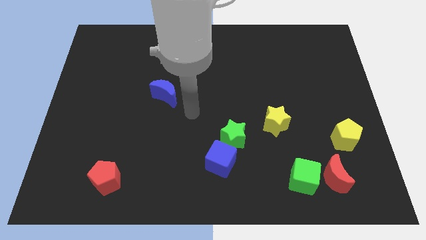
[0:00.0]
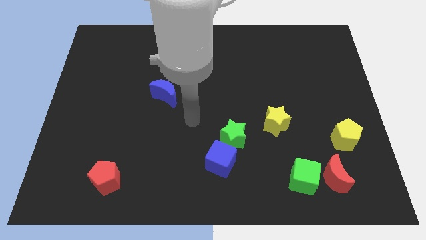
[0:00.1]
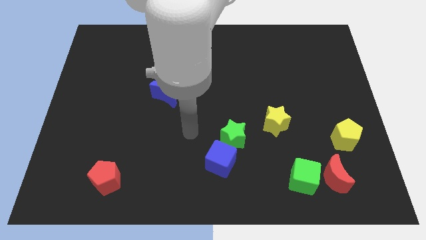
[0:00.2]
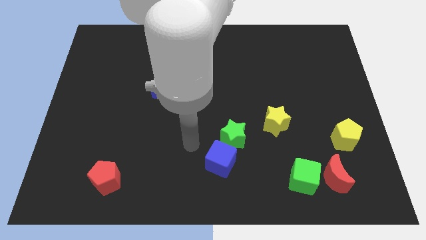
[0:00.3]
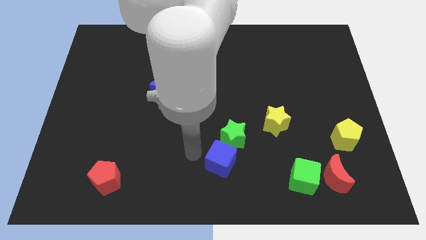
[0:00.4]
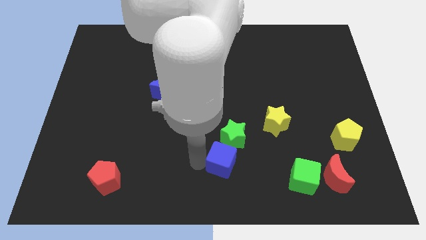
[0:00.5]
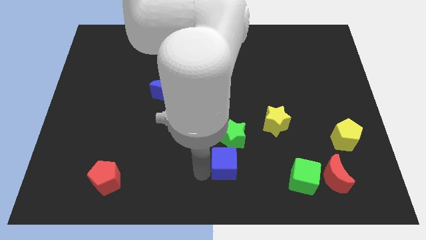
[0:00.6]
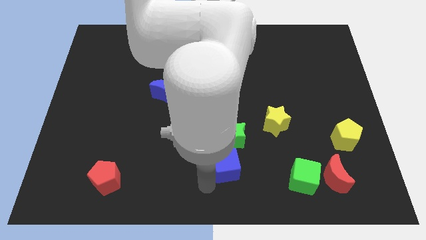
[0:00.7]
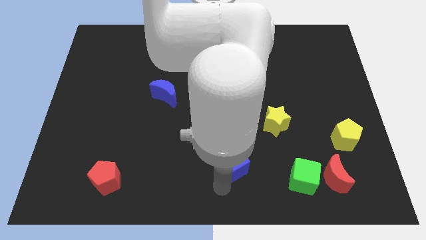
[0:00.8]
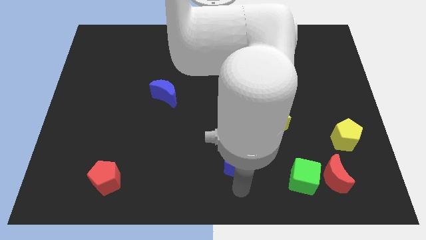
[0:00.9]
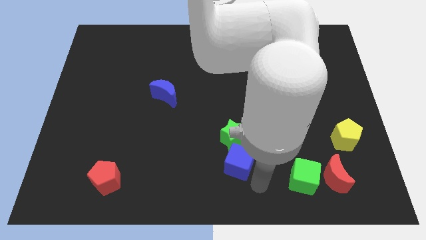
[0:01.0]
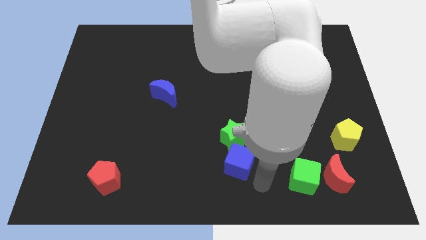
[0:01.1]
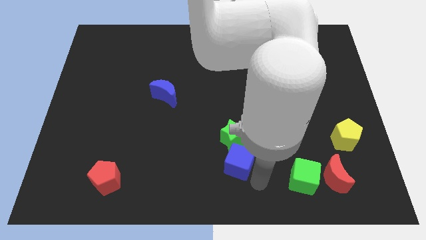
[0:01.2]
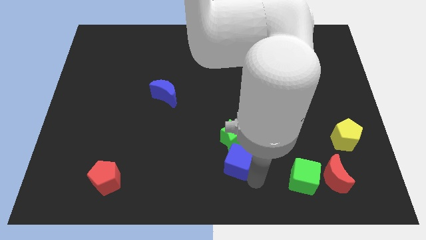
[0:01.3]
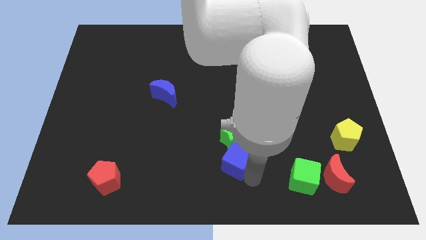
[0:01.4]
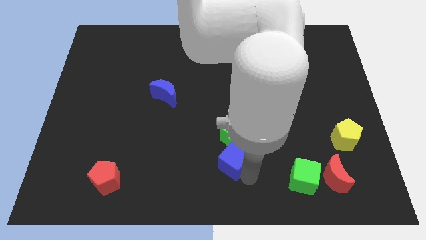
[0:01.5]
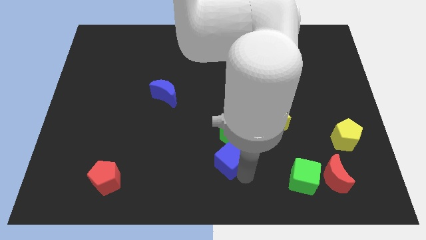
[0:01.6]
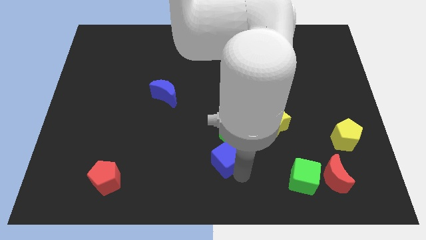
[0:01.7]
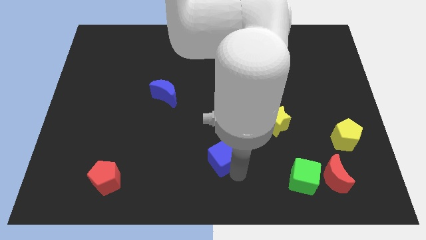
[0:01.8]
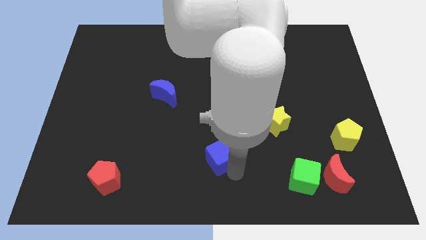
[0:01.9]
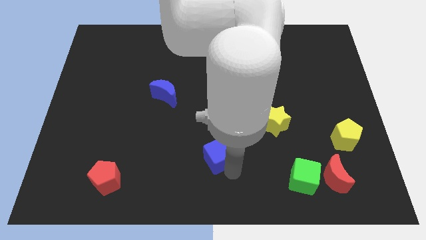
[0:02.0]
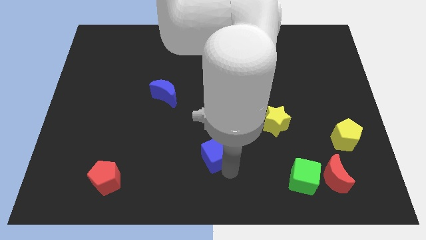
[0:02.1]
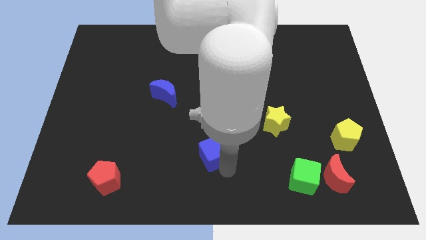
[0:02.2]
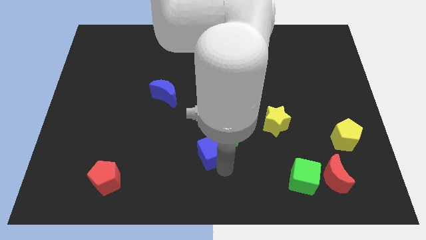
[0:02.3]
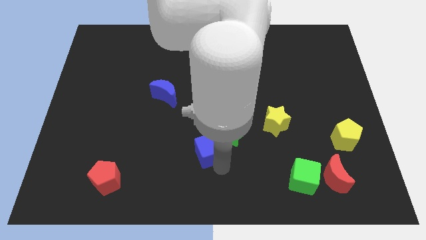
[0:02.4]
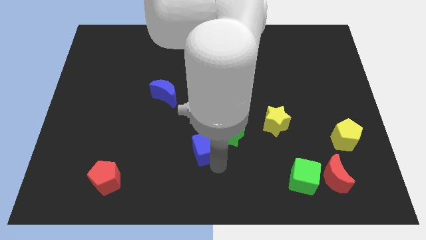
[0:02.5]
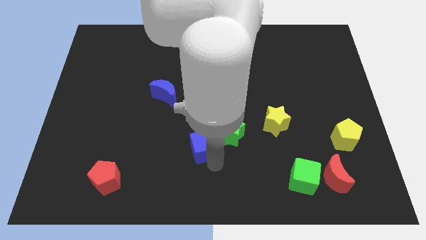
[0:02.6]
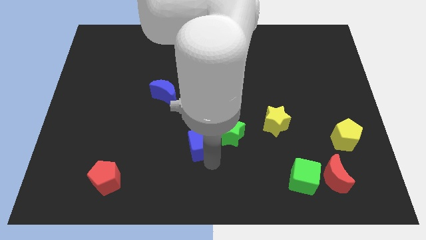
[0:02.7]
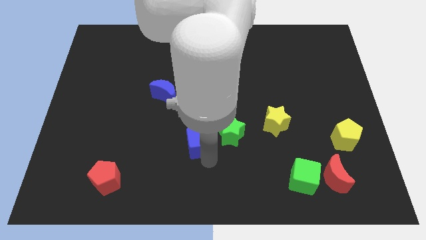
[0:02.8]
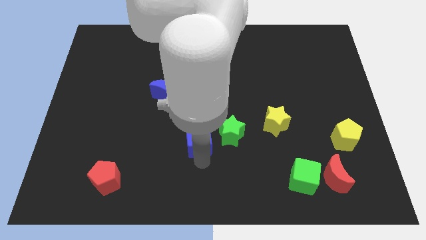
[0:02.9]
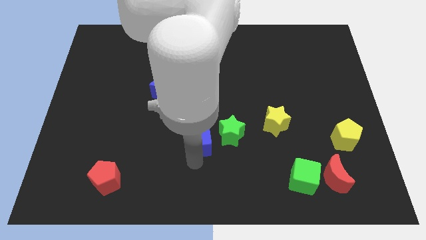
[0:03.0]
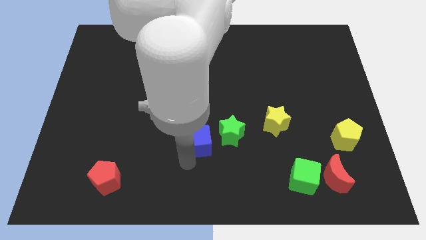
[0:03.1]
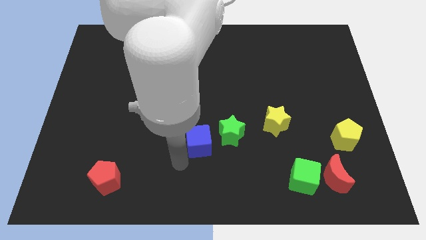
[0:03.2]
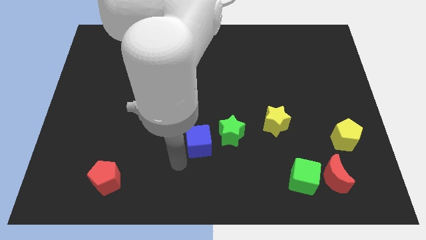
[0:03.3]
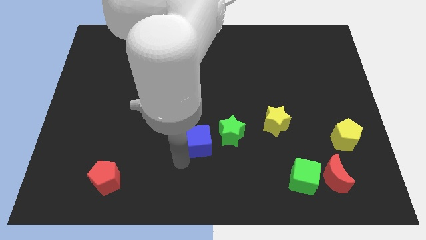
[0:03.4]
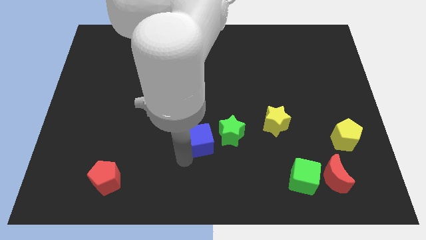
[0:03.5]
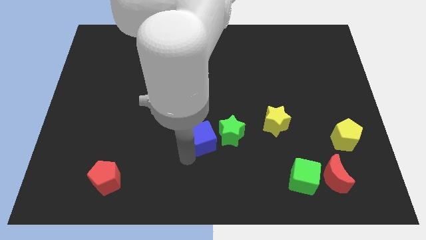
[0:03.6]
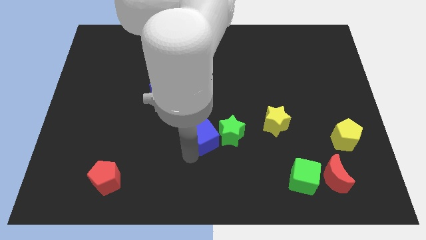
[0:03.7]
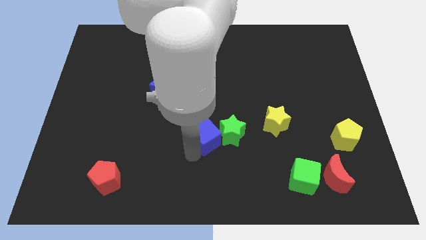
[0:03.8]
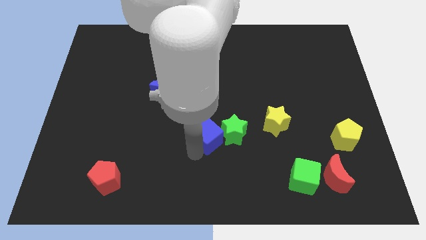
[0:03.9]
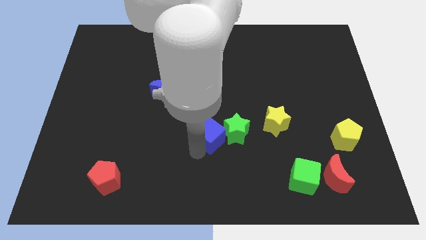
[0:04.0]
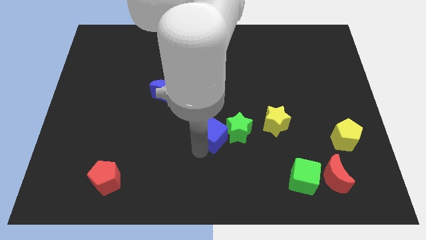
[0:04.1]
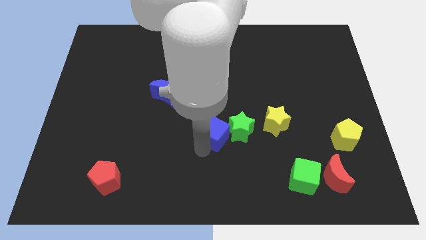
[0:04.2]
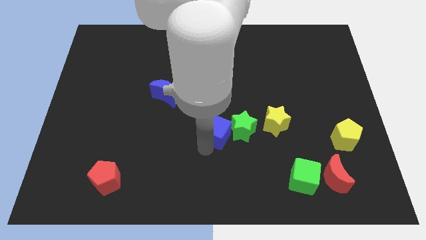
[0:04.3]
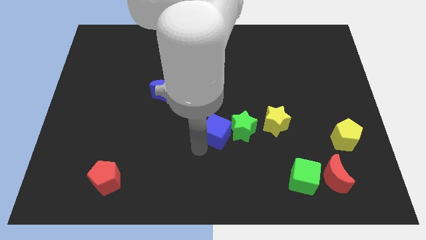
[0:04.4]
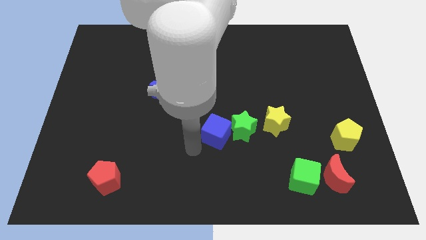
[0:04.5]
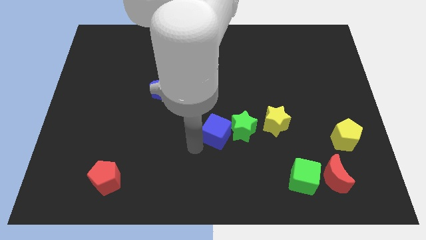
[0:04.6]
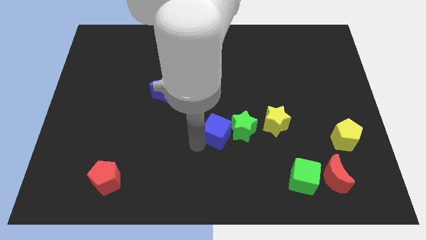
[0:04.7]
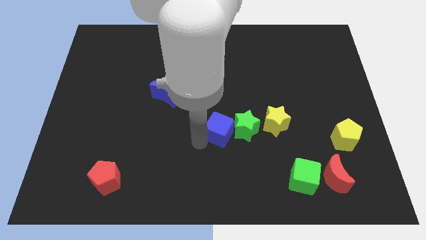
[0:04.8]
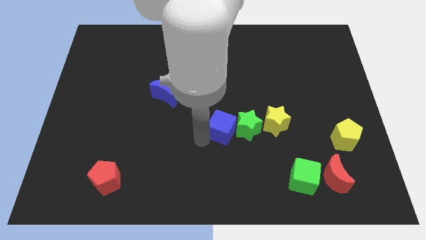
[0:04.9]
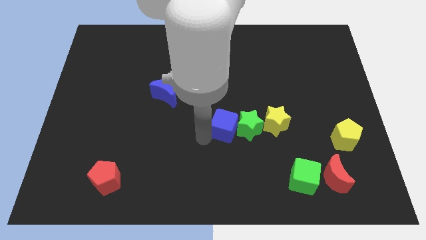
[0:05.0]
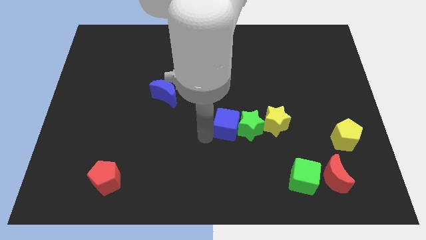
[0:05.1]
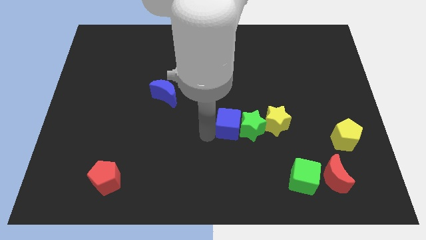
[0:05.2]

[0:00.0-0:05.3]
move the blue cube up and right a bit

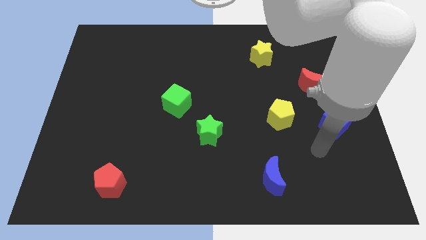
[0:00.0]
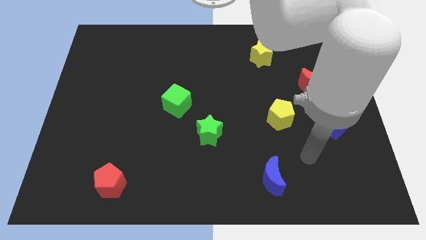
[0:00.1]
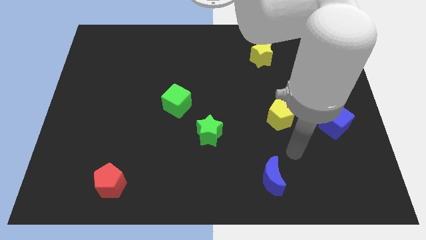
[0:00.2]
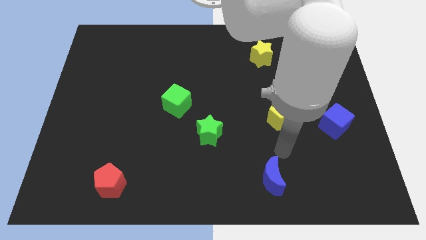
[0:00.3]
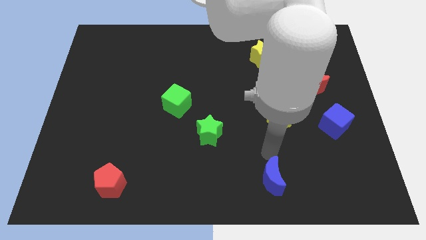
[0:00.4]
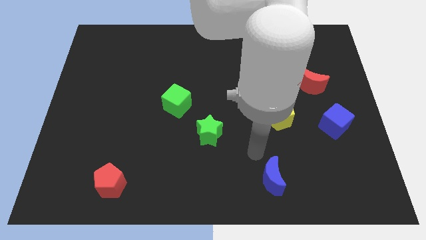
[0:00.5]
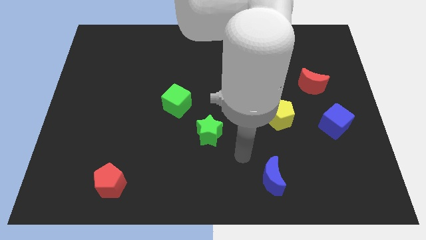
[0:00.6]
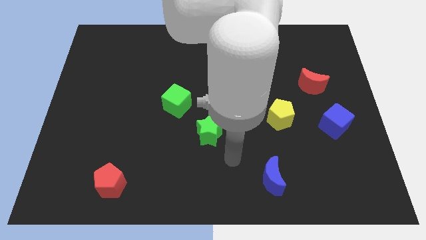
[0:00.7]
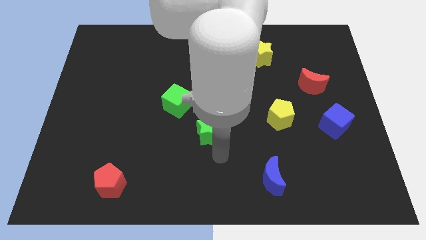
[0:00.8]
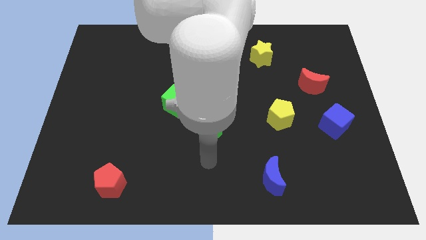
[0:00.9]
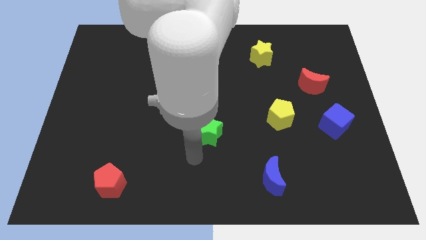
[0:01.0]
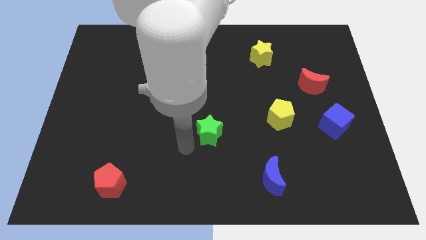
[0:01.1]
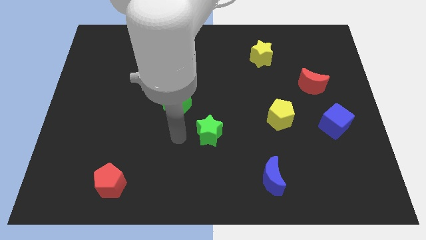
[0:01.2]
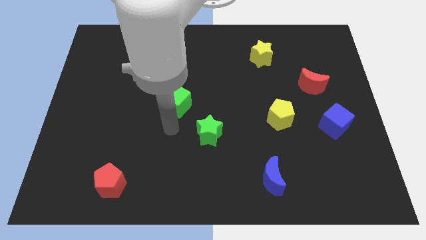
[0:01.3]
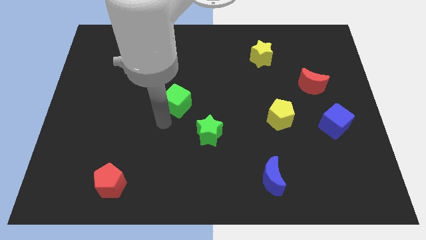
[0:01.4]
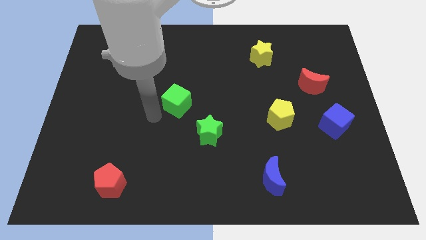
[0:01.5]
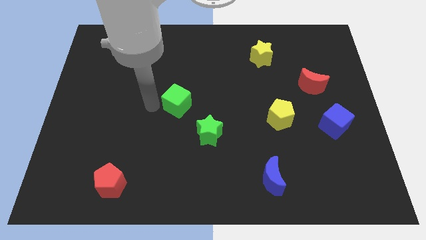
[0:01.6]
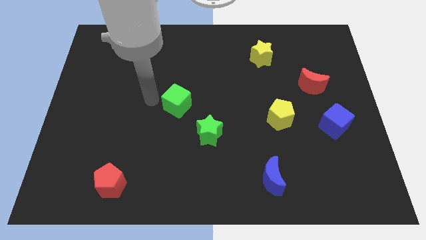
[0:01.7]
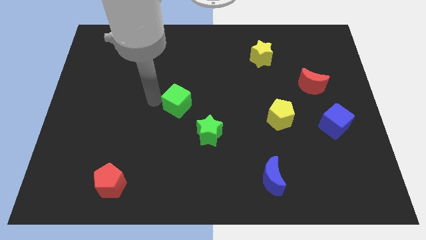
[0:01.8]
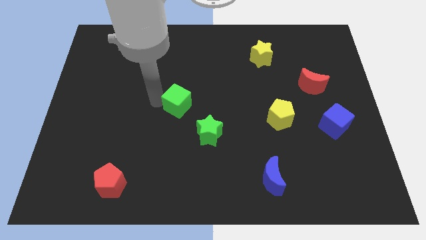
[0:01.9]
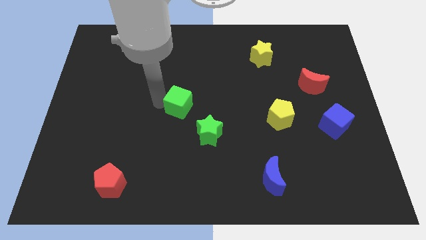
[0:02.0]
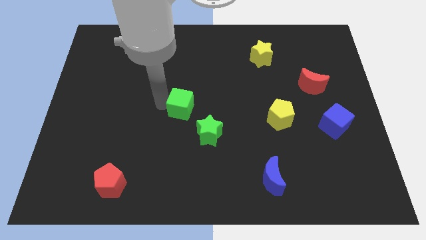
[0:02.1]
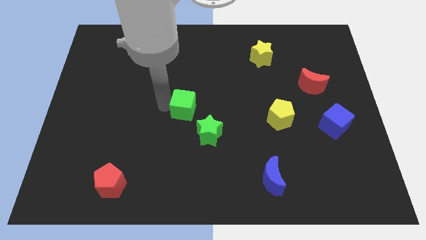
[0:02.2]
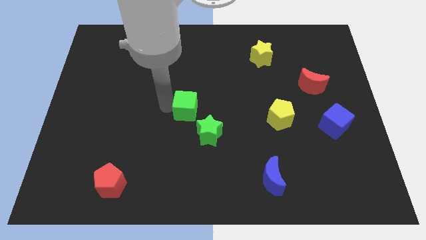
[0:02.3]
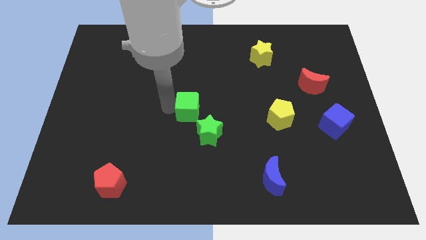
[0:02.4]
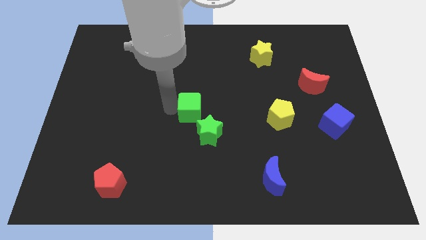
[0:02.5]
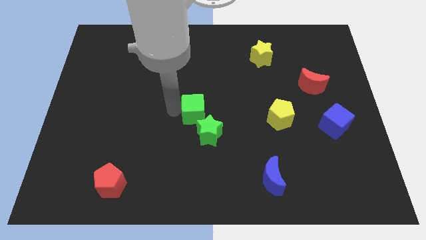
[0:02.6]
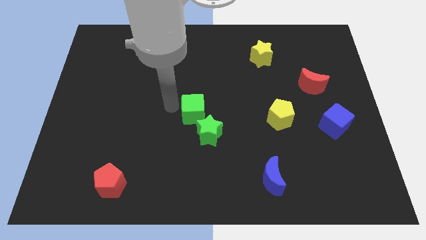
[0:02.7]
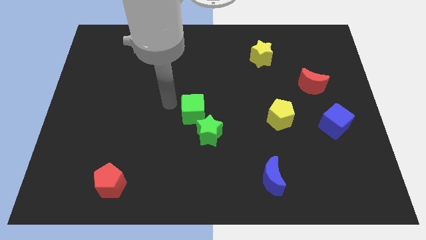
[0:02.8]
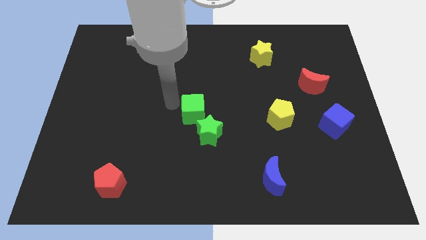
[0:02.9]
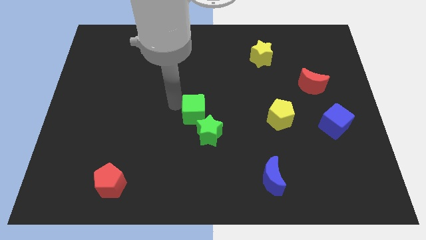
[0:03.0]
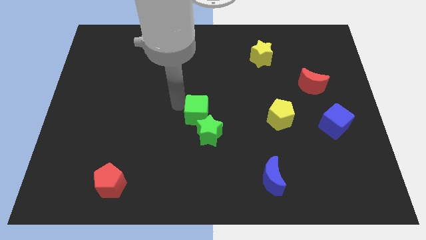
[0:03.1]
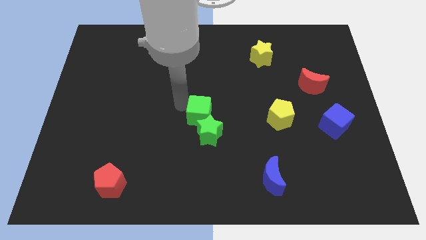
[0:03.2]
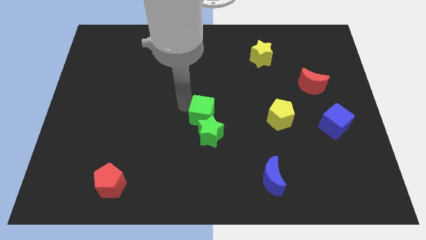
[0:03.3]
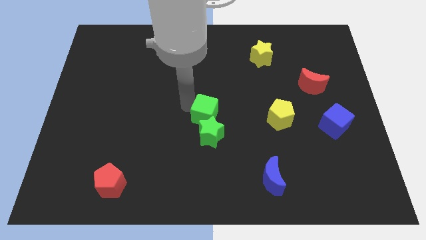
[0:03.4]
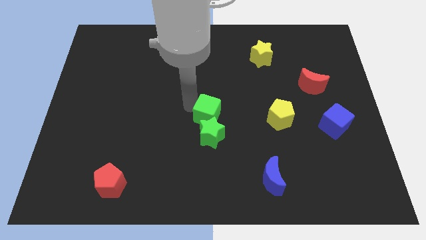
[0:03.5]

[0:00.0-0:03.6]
slide the green cube a bit down and then to the right
